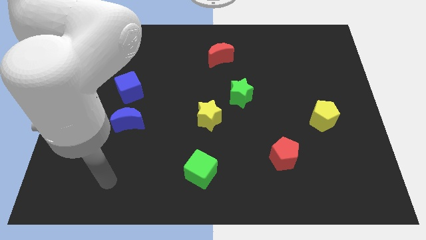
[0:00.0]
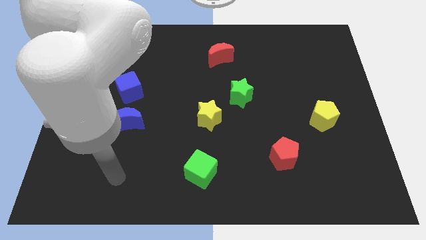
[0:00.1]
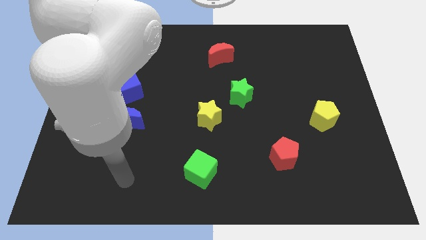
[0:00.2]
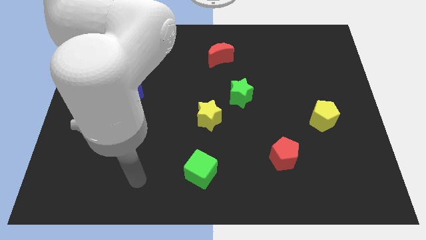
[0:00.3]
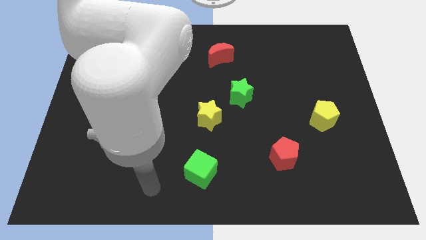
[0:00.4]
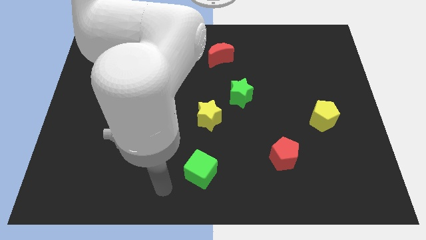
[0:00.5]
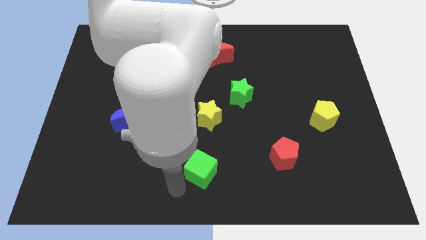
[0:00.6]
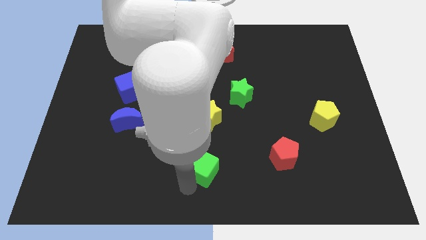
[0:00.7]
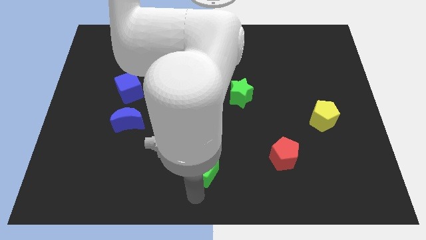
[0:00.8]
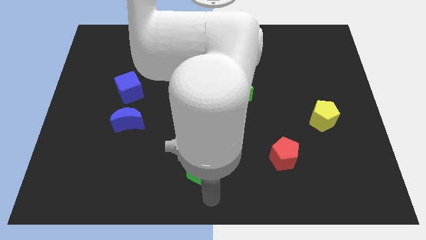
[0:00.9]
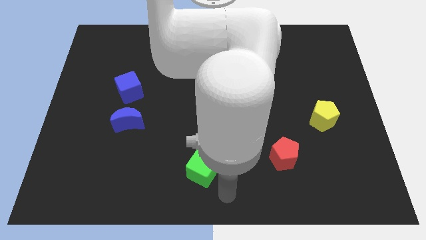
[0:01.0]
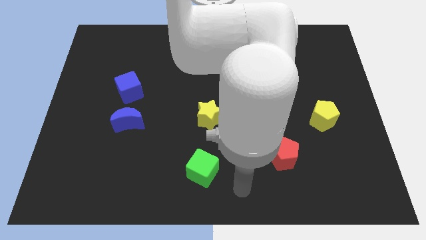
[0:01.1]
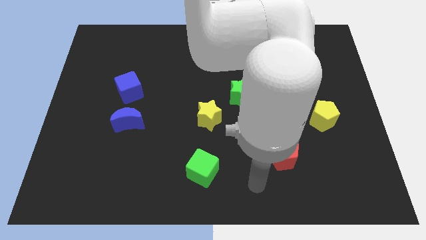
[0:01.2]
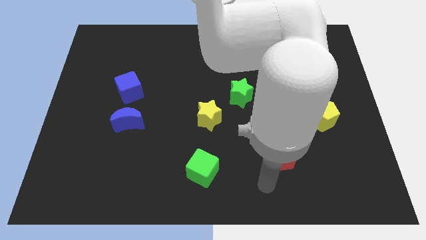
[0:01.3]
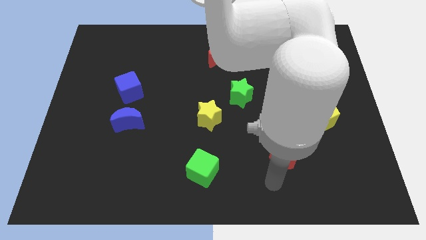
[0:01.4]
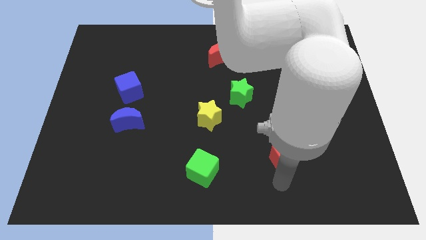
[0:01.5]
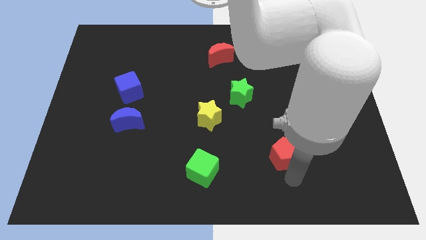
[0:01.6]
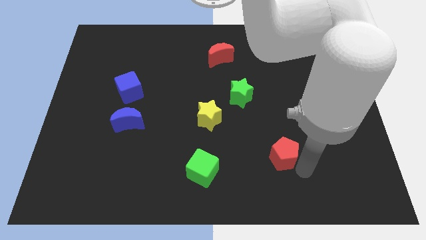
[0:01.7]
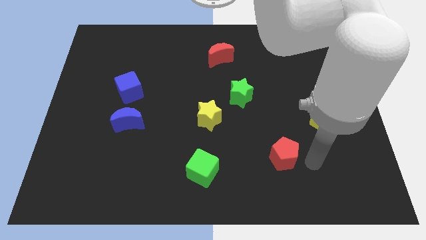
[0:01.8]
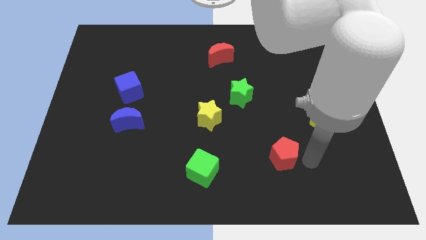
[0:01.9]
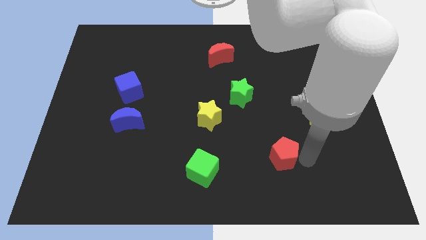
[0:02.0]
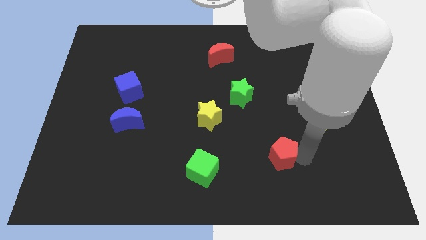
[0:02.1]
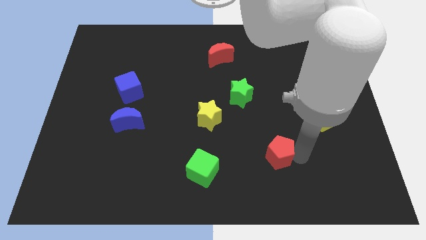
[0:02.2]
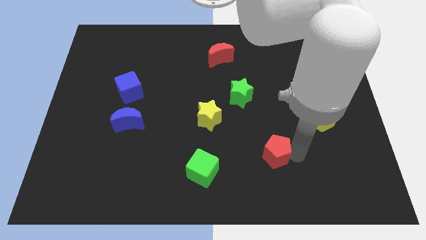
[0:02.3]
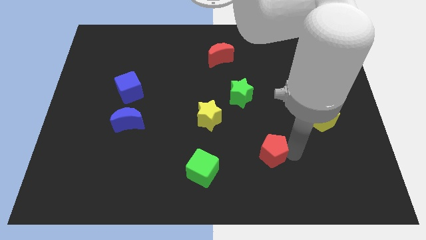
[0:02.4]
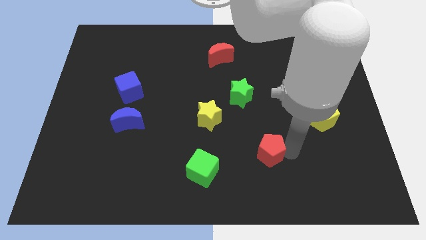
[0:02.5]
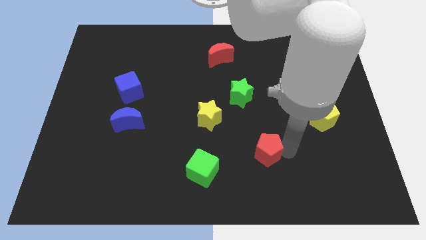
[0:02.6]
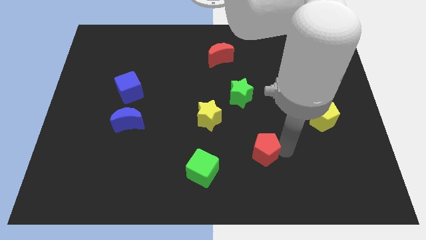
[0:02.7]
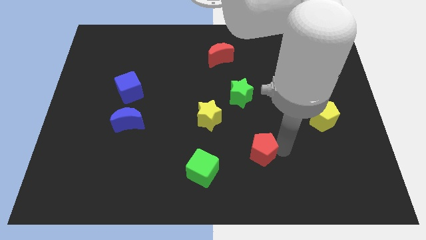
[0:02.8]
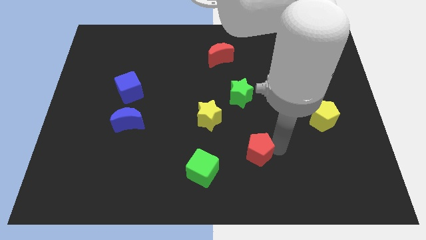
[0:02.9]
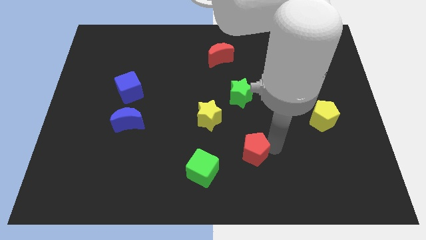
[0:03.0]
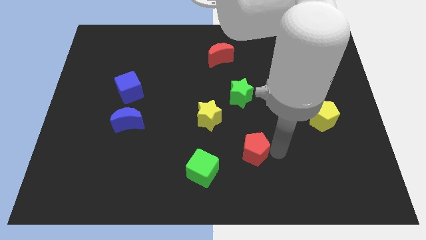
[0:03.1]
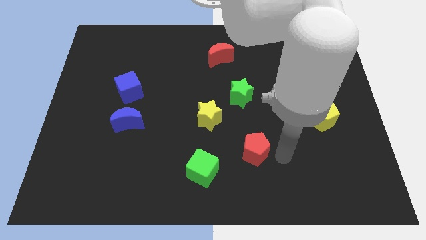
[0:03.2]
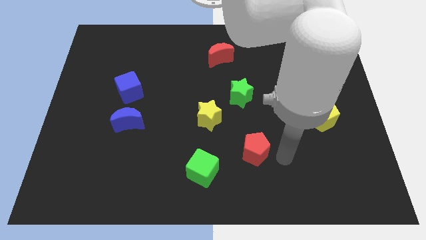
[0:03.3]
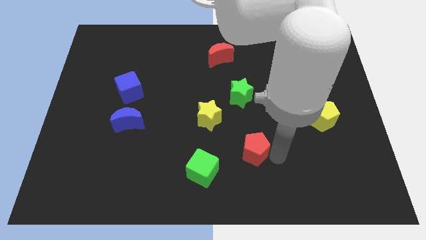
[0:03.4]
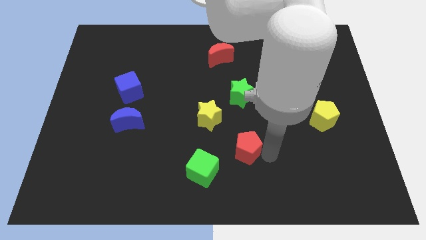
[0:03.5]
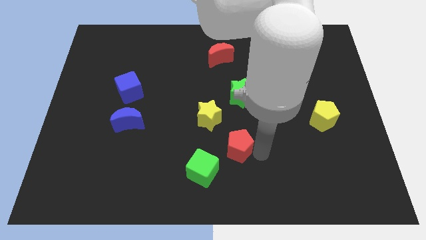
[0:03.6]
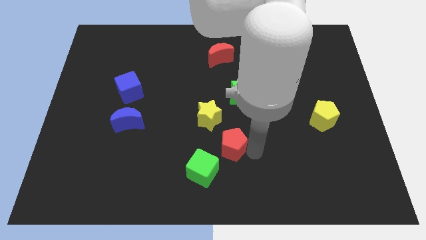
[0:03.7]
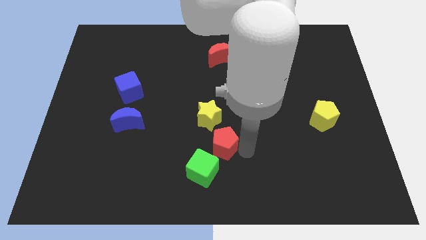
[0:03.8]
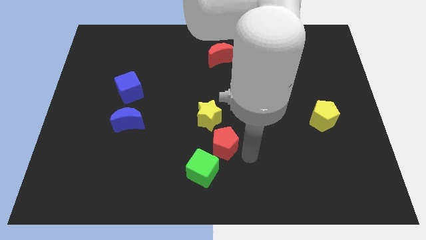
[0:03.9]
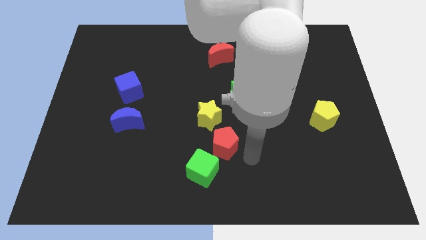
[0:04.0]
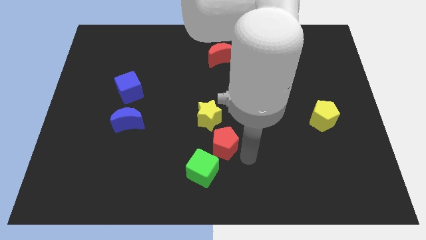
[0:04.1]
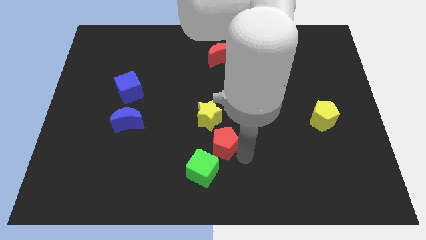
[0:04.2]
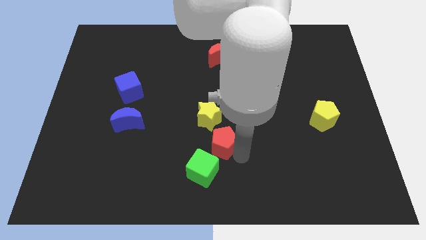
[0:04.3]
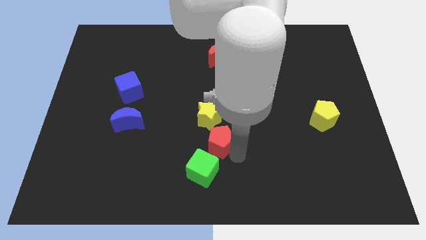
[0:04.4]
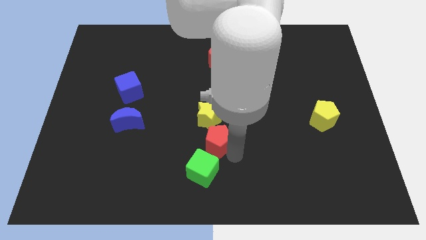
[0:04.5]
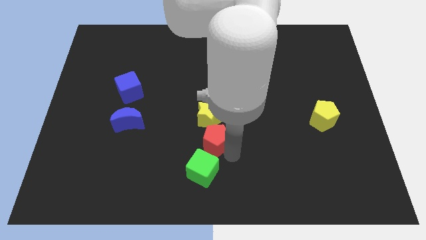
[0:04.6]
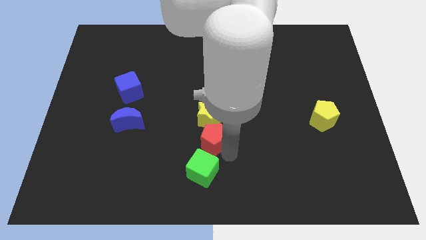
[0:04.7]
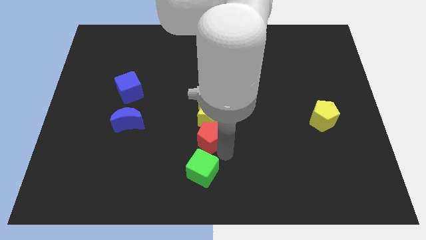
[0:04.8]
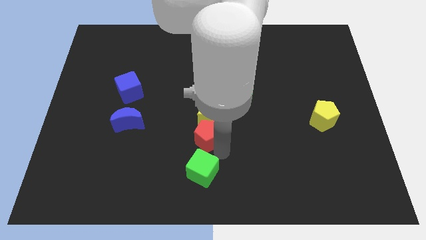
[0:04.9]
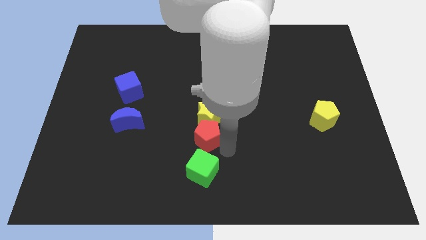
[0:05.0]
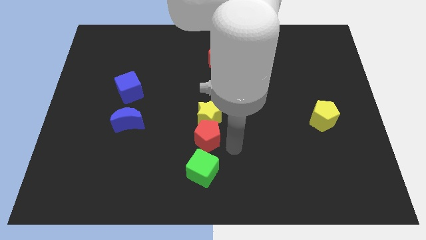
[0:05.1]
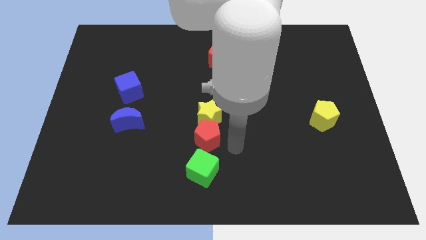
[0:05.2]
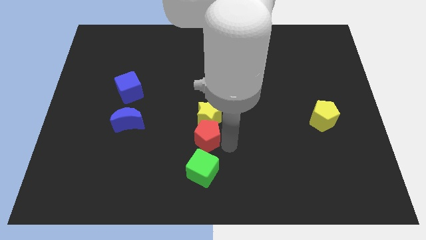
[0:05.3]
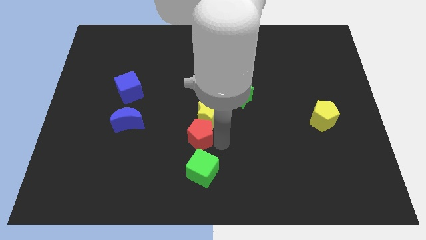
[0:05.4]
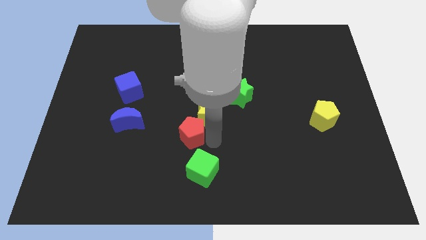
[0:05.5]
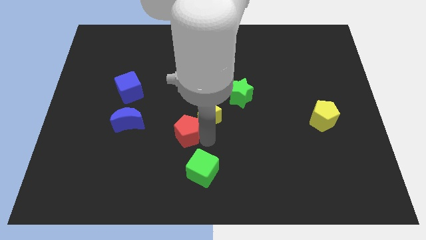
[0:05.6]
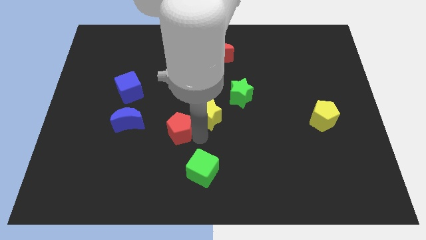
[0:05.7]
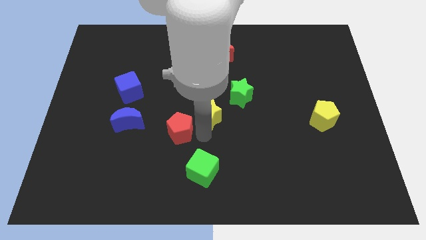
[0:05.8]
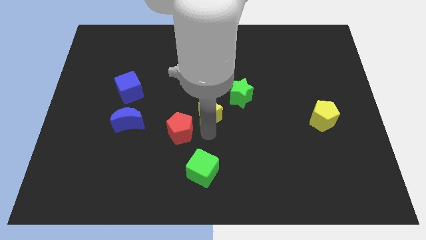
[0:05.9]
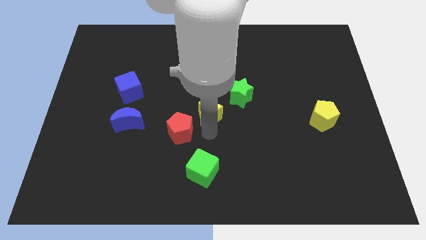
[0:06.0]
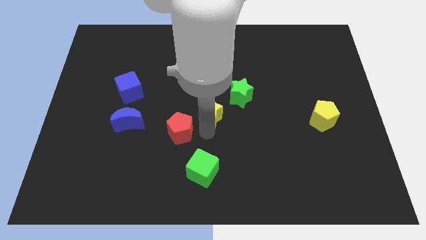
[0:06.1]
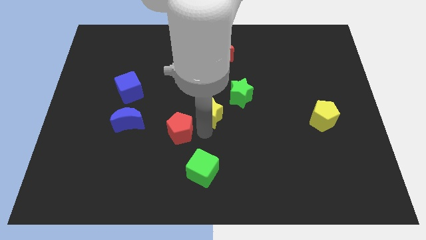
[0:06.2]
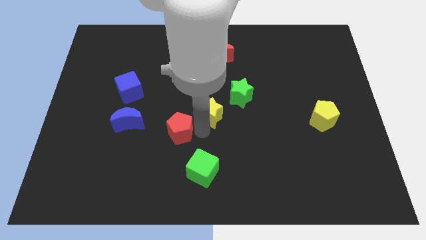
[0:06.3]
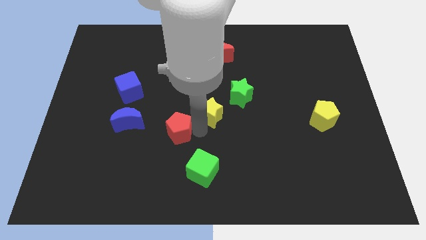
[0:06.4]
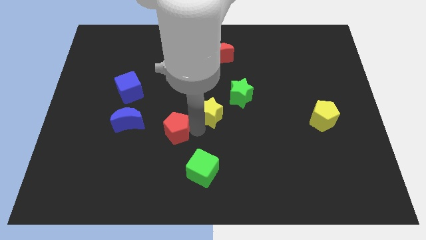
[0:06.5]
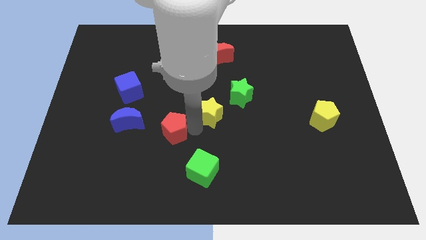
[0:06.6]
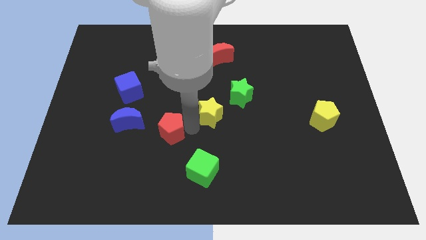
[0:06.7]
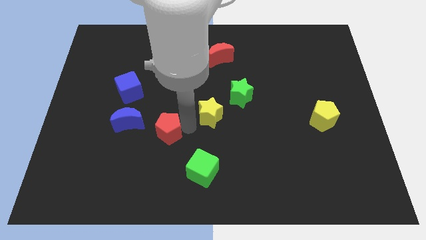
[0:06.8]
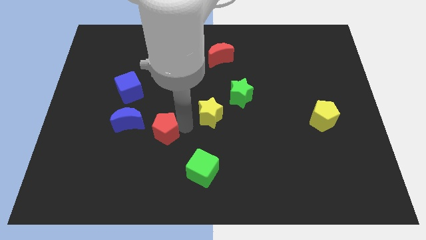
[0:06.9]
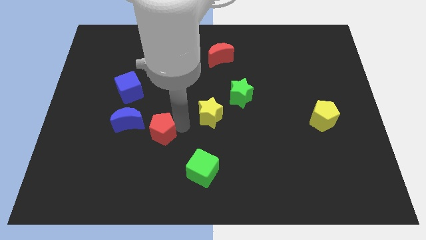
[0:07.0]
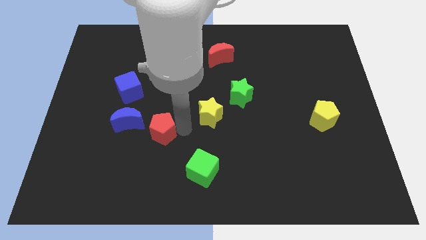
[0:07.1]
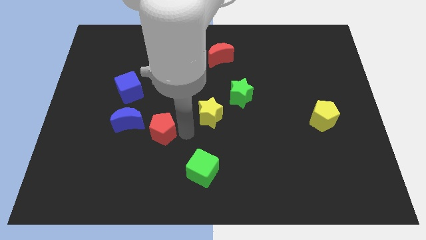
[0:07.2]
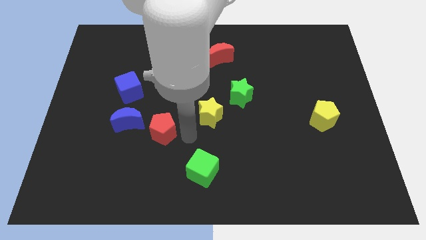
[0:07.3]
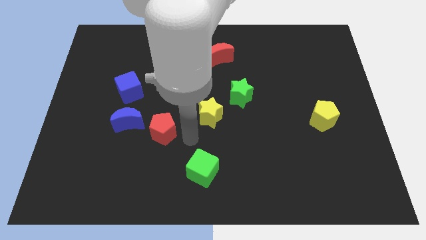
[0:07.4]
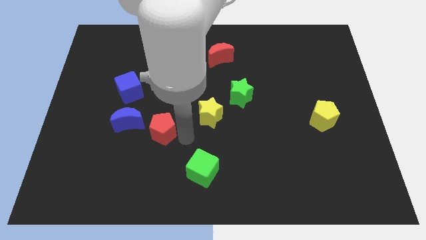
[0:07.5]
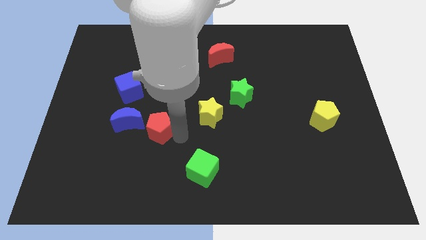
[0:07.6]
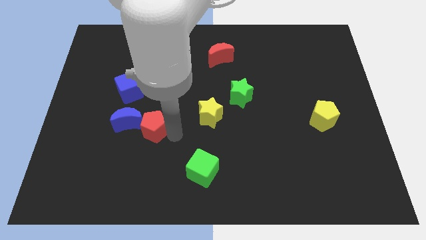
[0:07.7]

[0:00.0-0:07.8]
slide the red pentagon next to the blue moon
